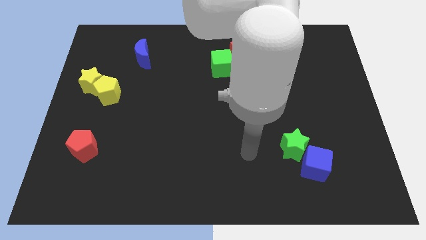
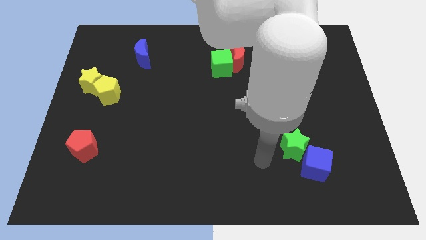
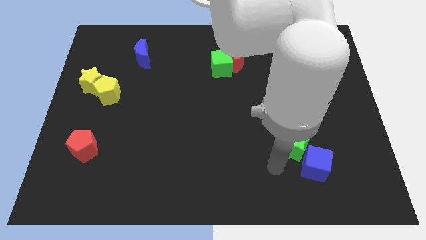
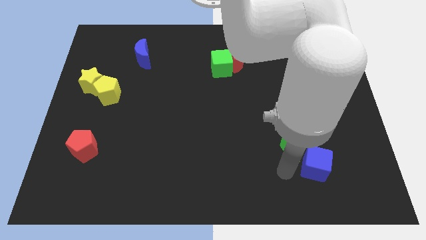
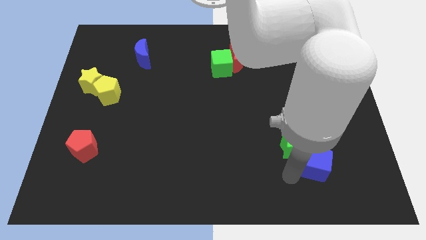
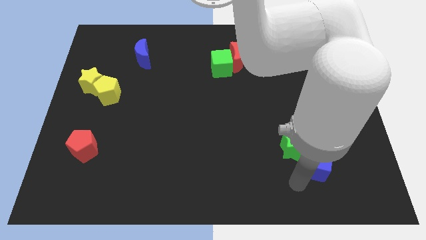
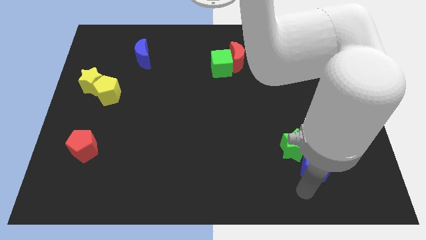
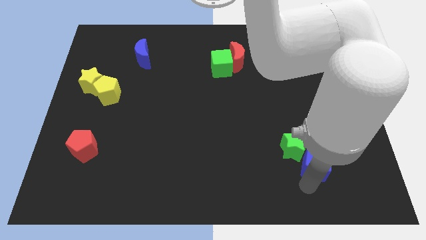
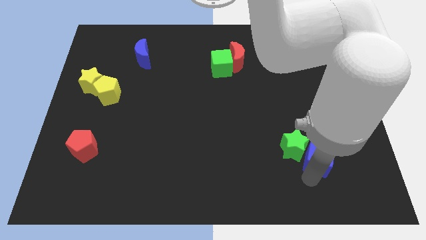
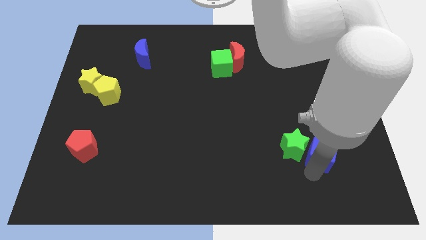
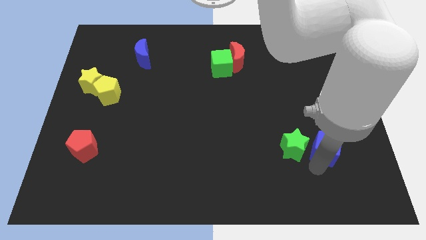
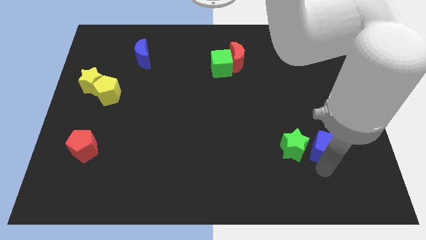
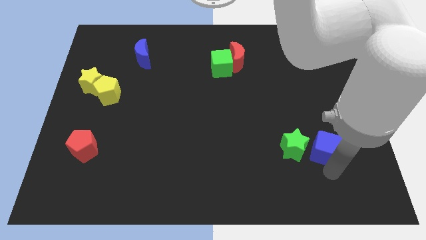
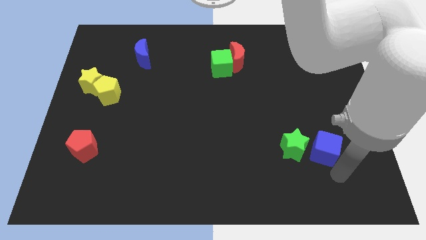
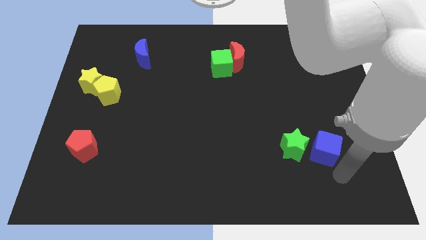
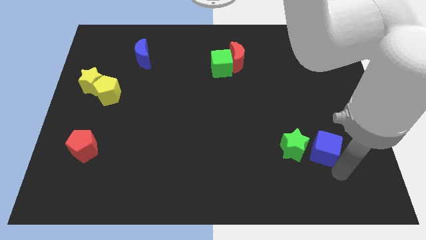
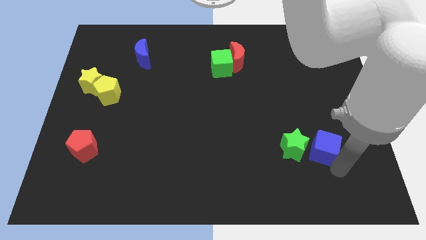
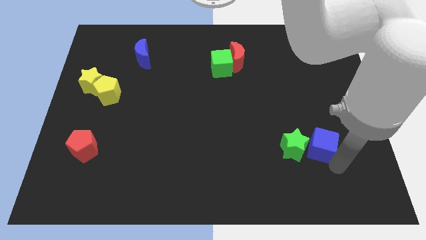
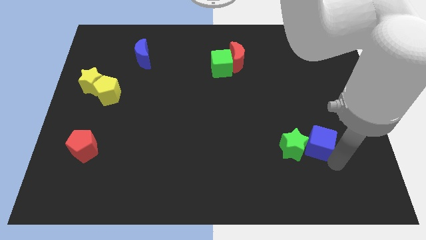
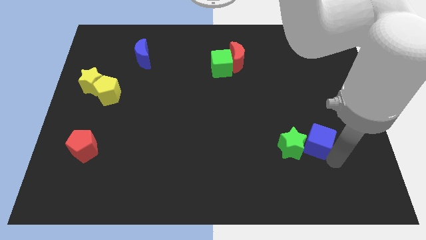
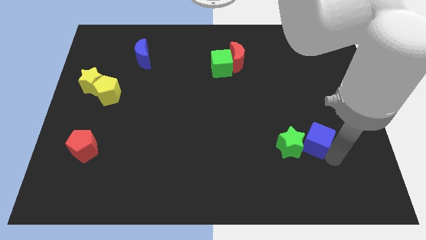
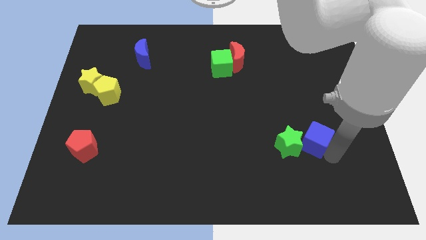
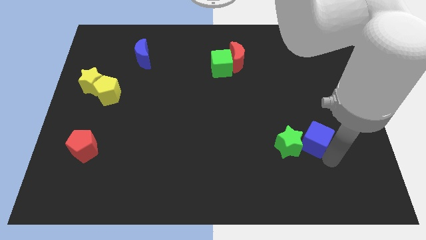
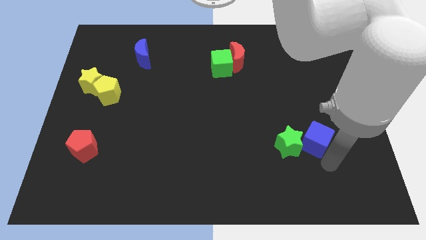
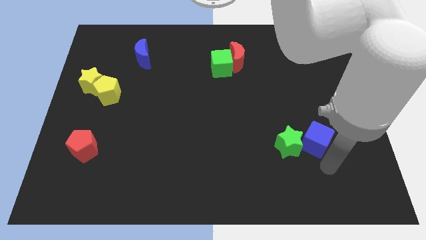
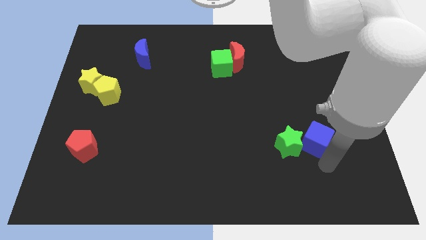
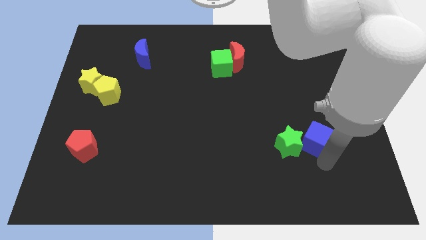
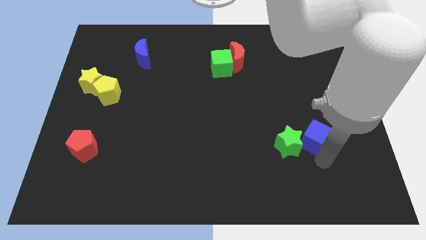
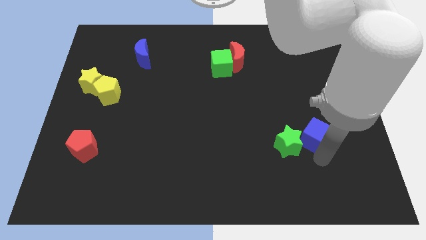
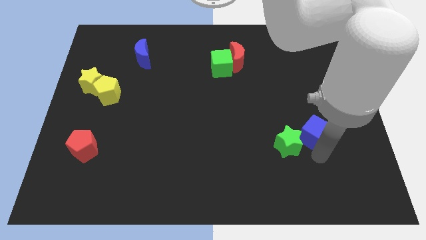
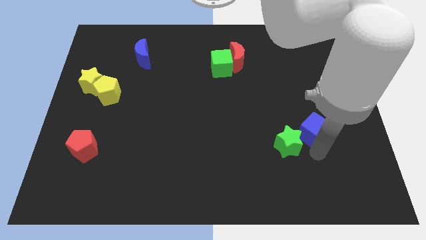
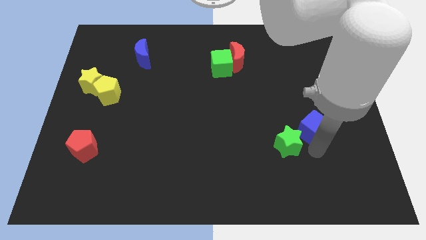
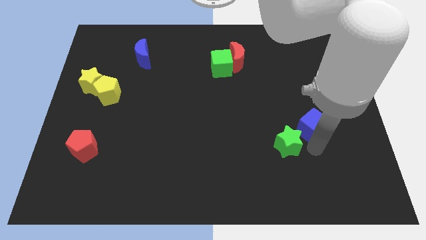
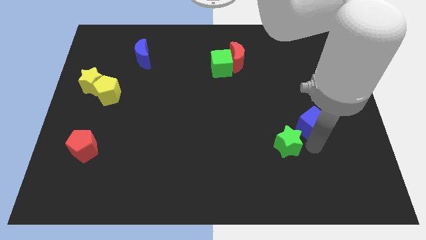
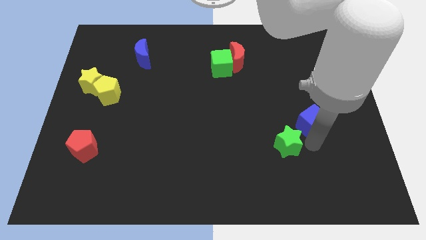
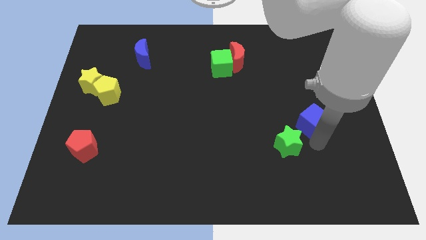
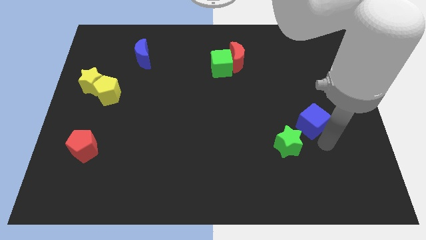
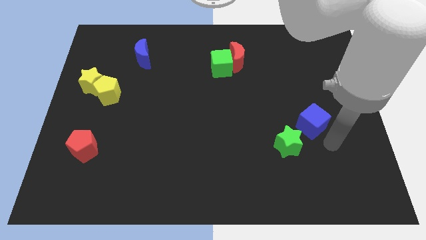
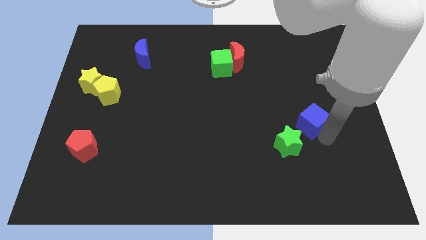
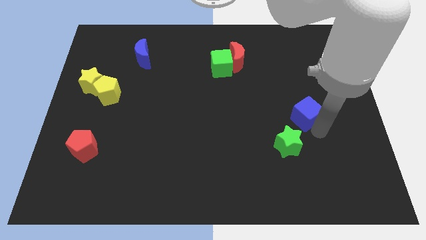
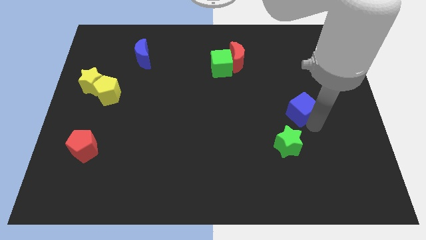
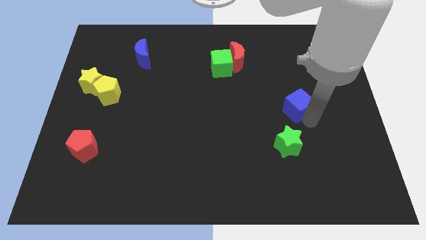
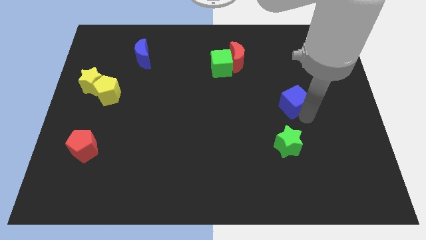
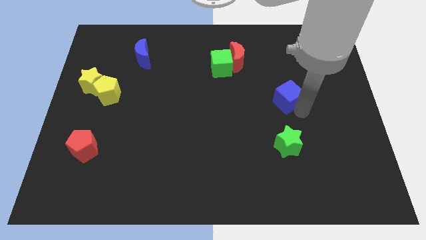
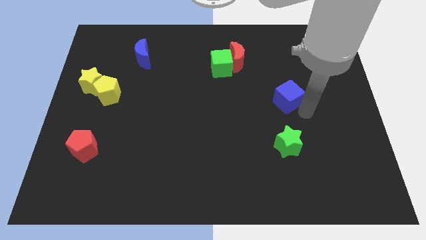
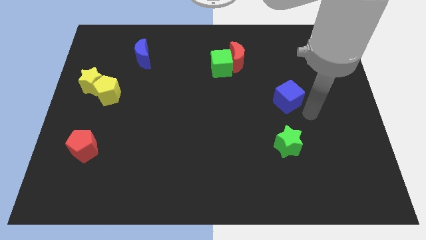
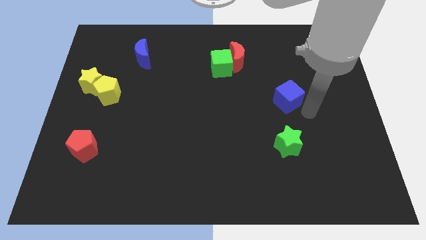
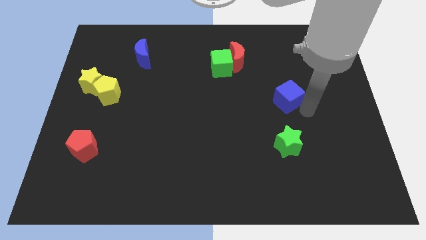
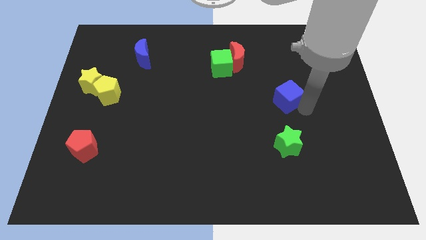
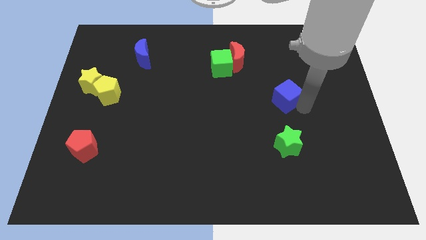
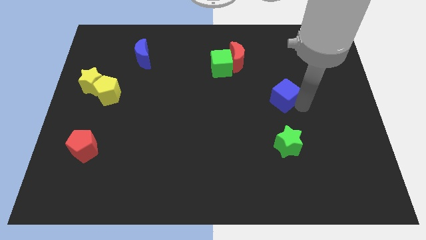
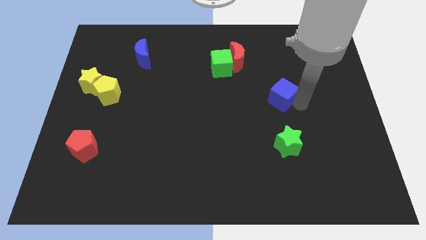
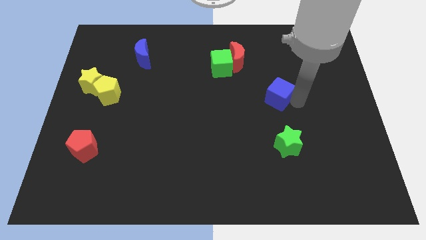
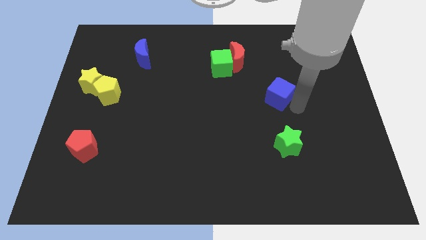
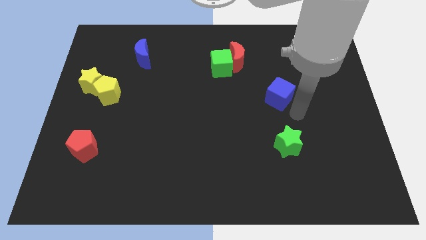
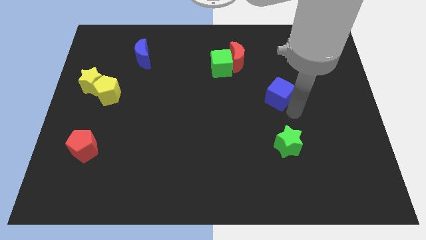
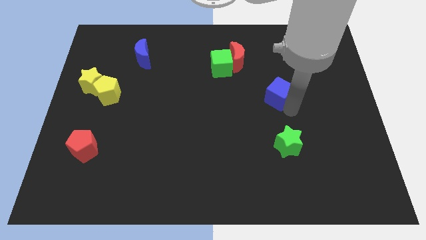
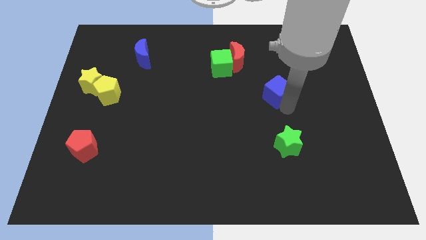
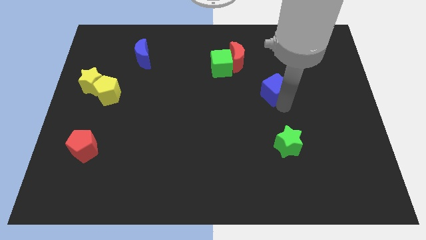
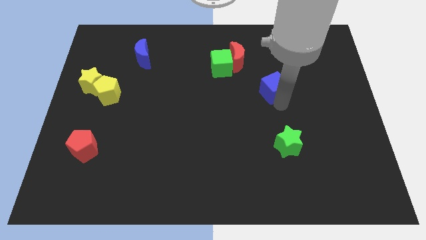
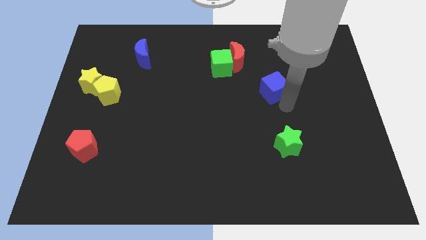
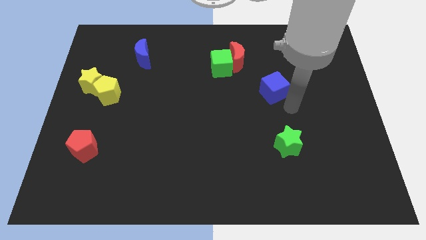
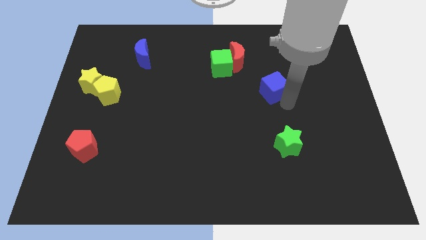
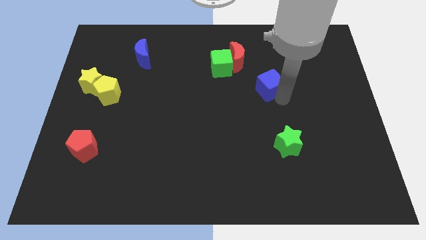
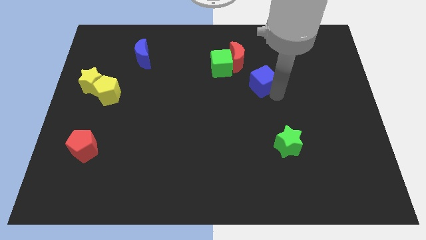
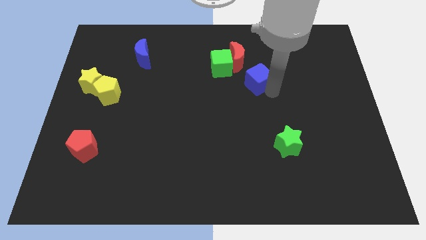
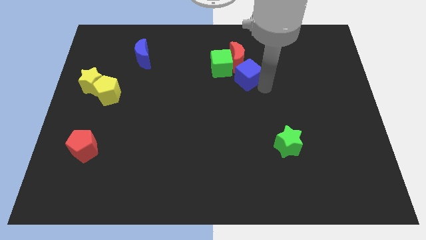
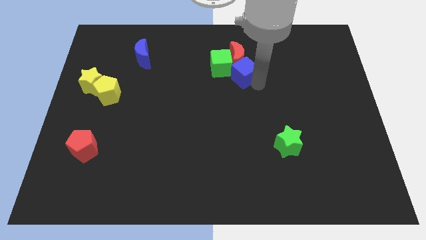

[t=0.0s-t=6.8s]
move the blue cube close to the red moon

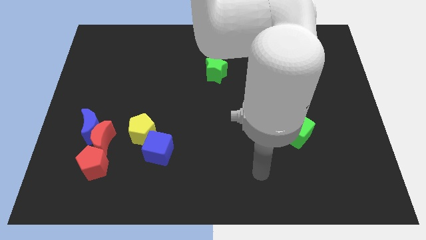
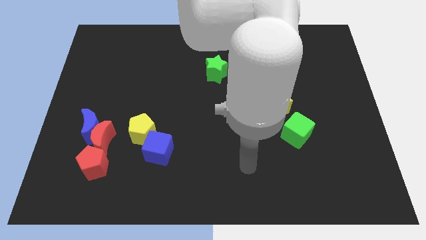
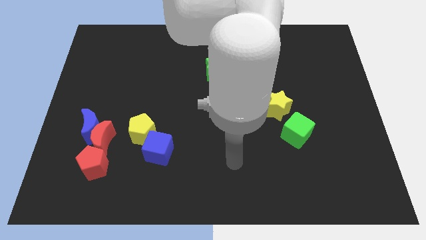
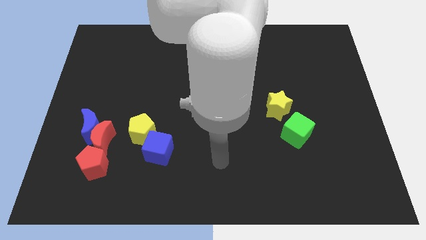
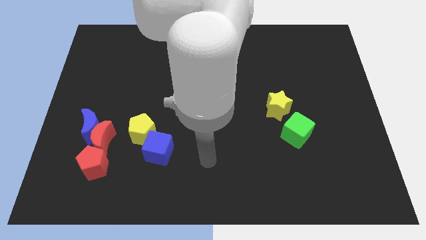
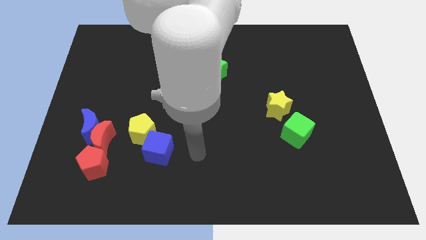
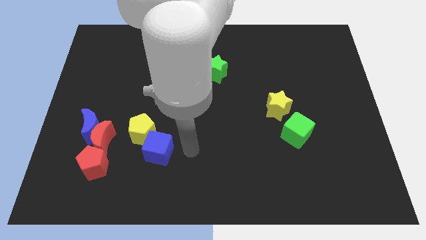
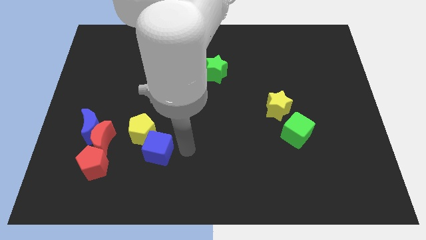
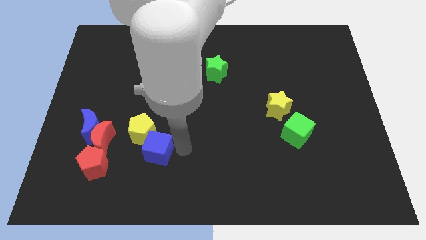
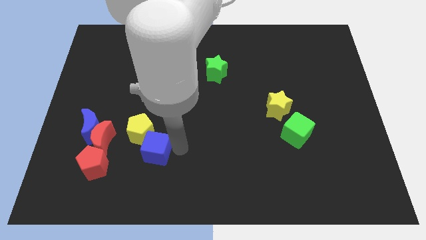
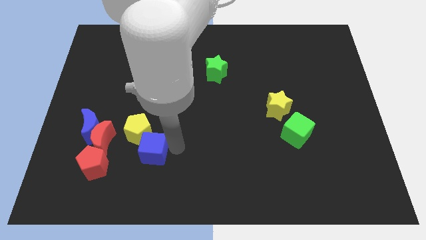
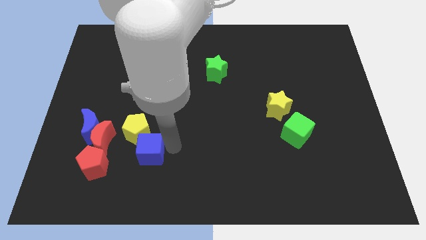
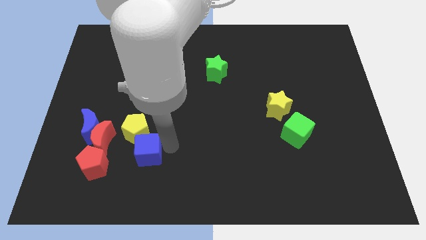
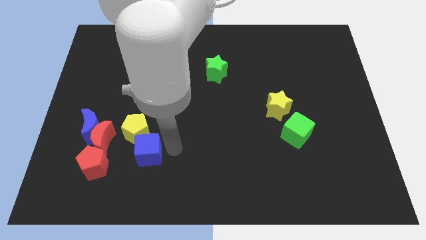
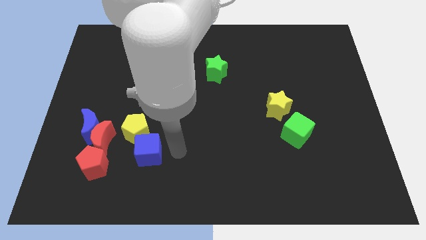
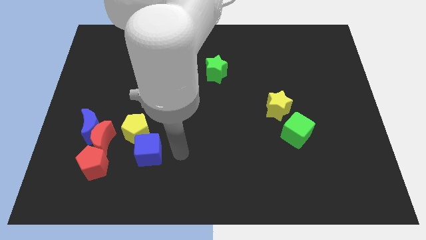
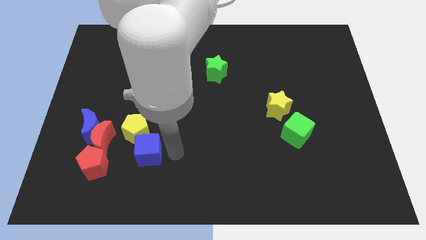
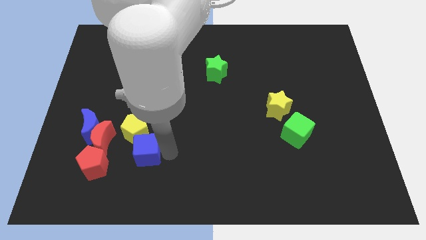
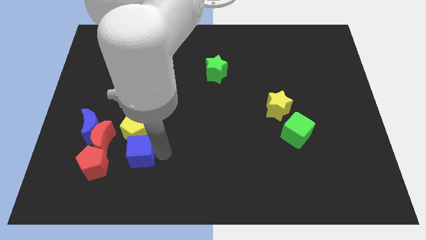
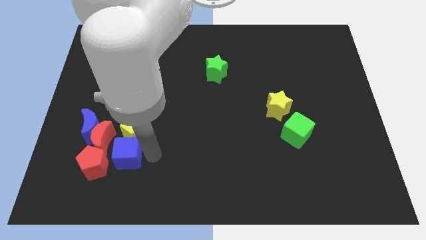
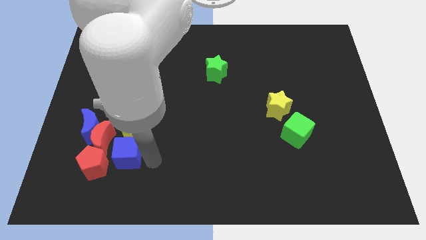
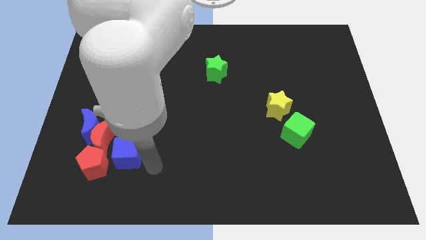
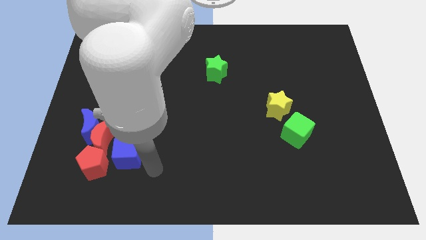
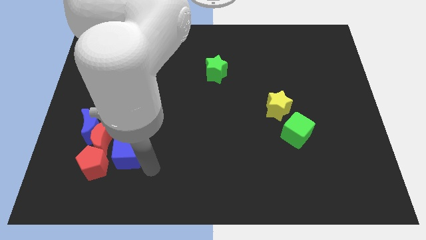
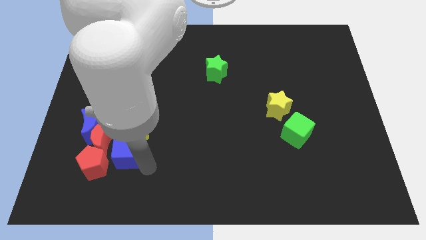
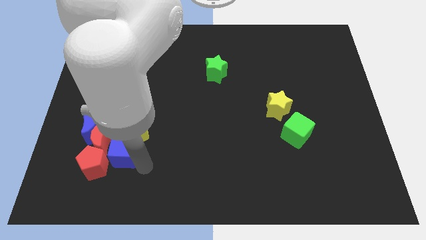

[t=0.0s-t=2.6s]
put the blue cube next to the red moon
